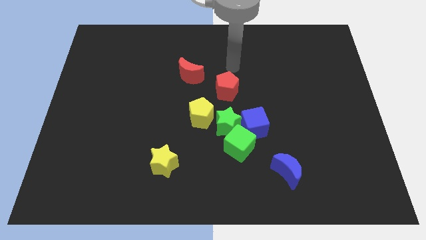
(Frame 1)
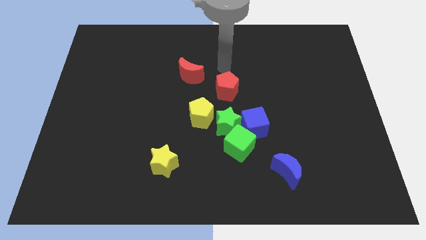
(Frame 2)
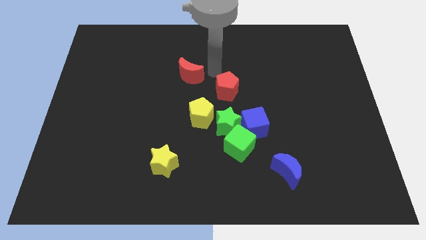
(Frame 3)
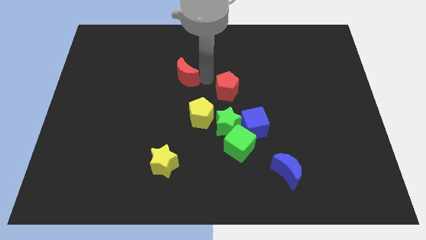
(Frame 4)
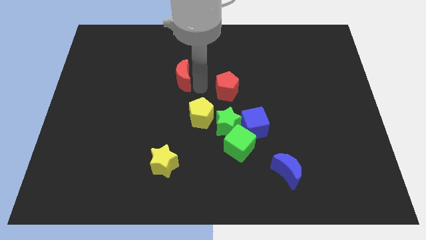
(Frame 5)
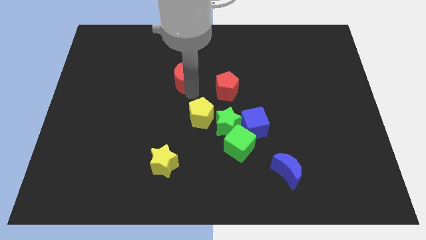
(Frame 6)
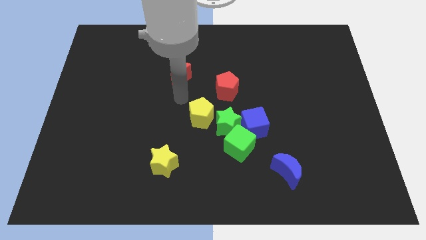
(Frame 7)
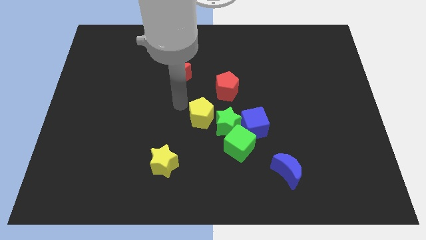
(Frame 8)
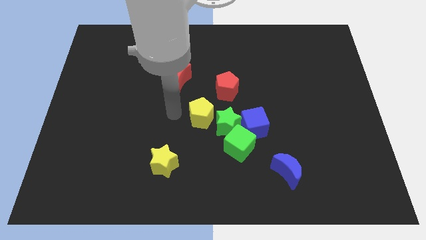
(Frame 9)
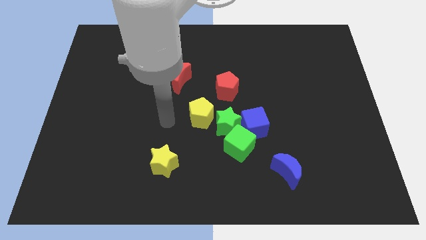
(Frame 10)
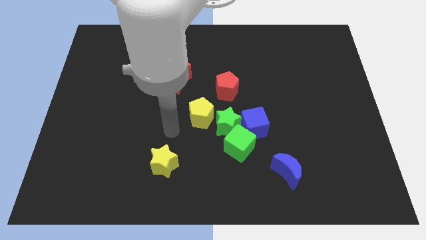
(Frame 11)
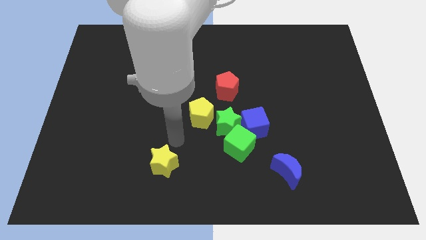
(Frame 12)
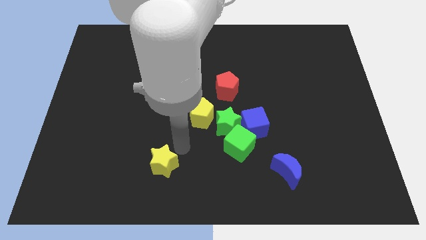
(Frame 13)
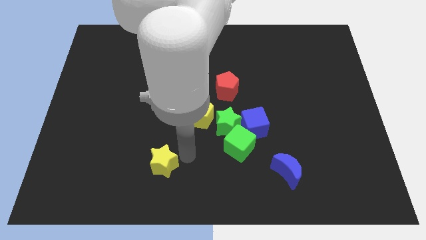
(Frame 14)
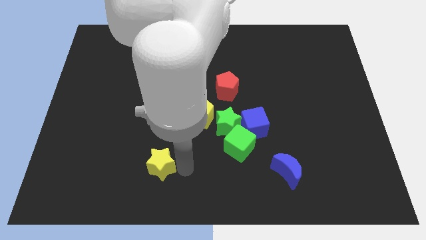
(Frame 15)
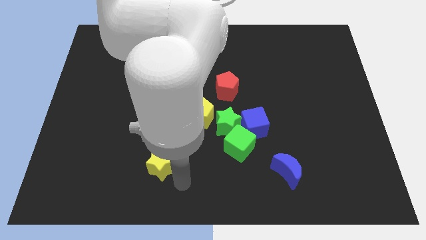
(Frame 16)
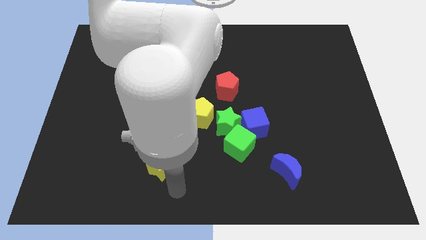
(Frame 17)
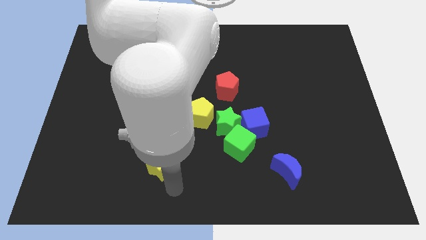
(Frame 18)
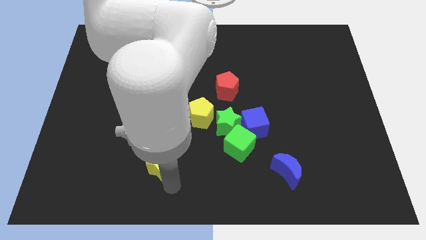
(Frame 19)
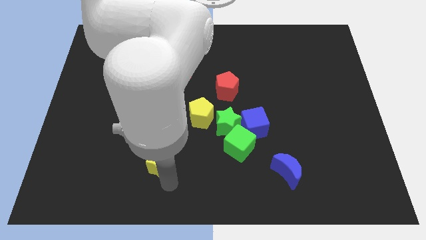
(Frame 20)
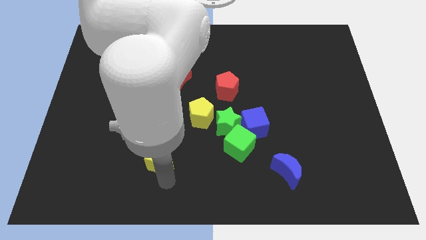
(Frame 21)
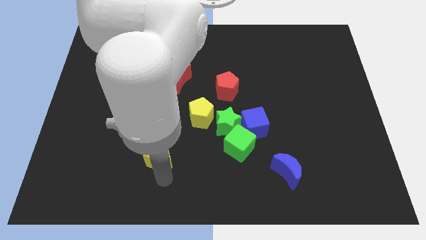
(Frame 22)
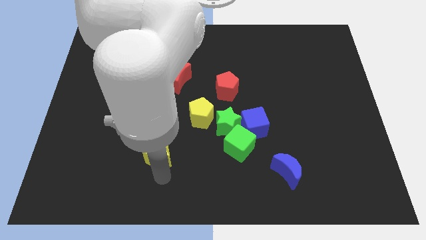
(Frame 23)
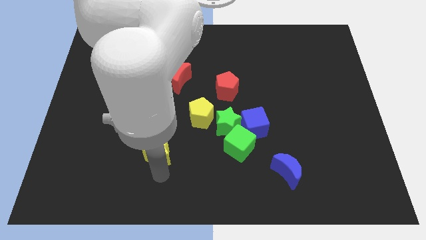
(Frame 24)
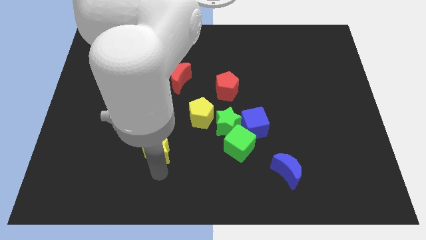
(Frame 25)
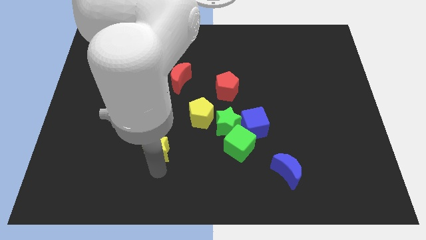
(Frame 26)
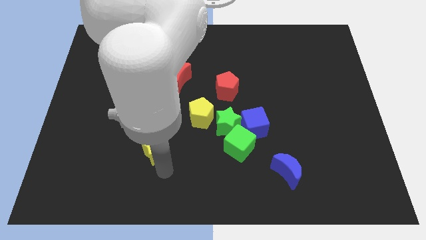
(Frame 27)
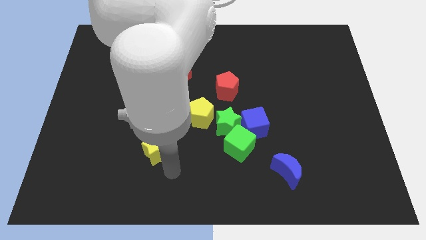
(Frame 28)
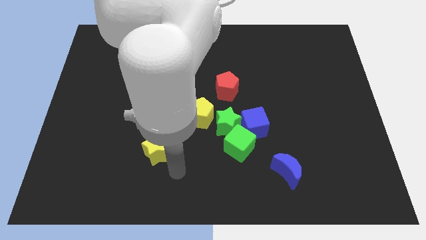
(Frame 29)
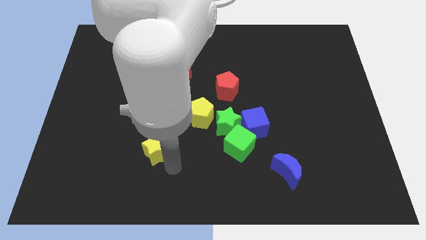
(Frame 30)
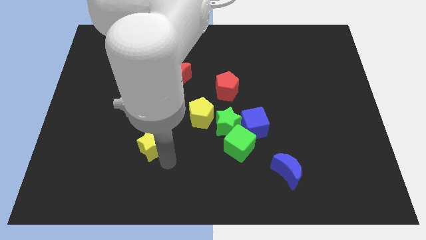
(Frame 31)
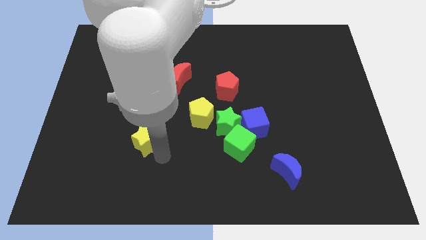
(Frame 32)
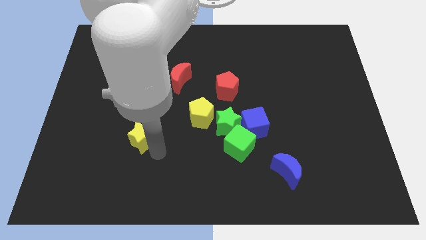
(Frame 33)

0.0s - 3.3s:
slide the yellow star somewhat up and then left

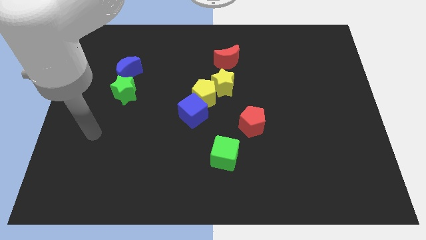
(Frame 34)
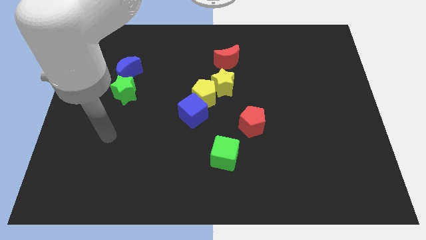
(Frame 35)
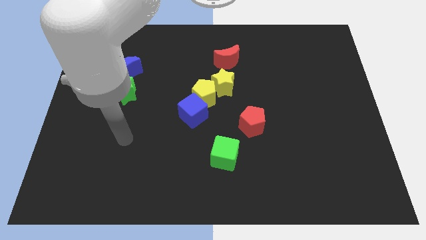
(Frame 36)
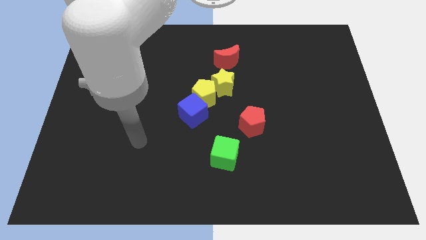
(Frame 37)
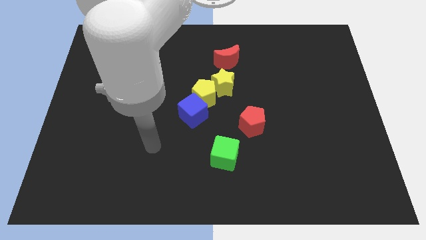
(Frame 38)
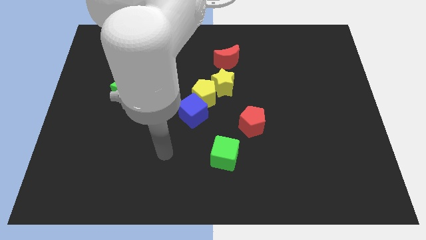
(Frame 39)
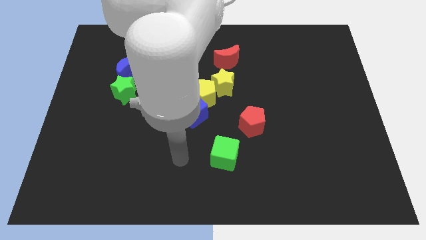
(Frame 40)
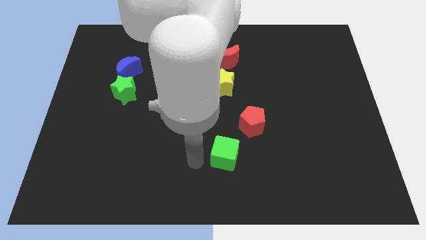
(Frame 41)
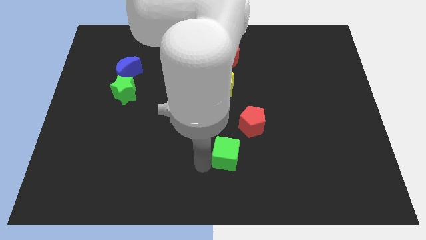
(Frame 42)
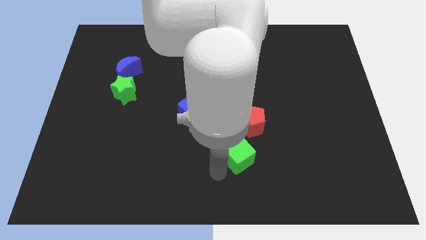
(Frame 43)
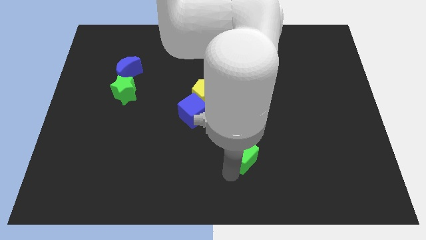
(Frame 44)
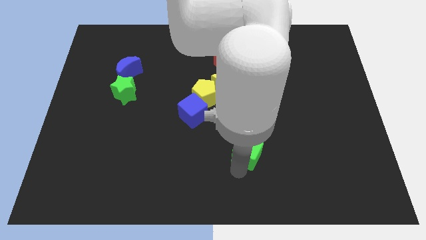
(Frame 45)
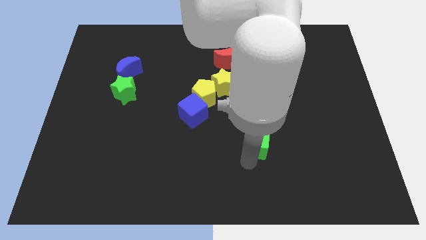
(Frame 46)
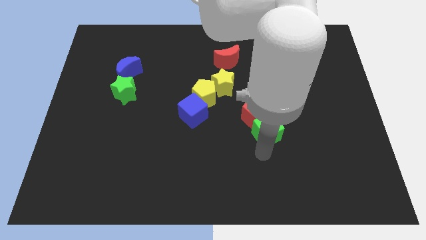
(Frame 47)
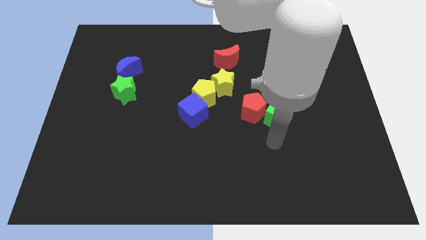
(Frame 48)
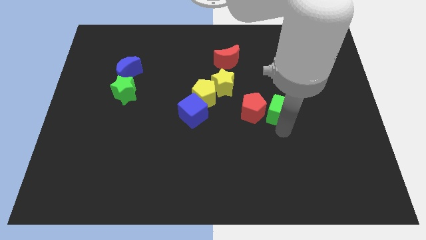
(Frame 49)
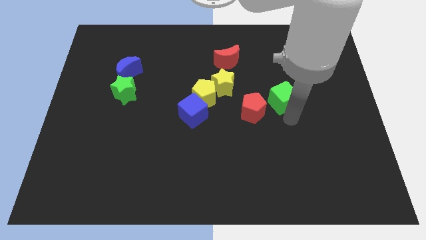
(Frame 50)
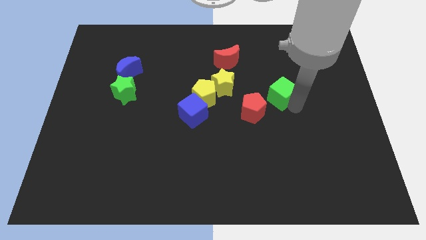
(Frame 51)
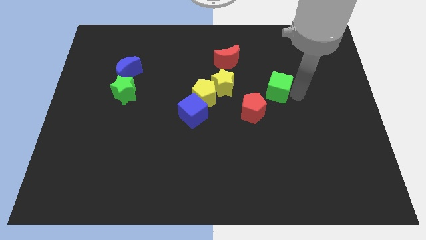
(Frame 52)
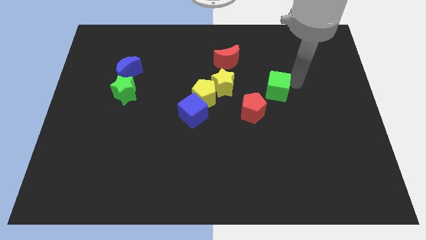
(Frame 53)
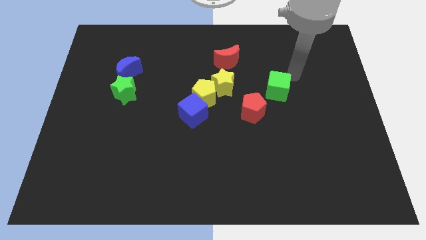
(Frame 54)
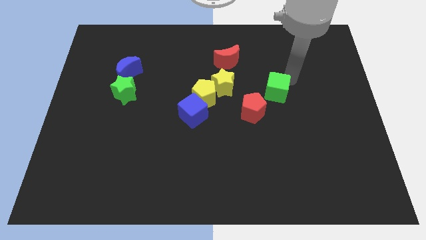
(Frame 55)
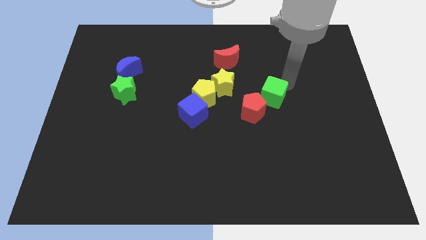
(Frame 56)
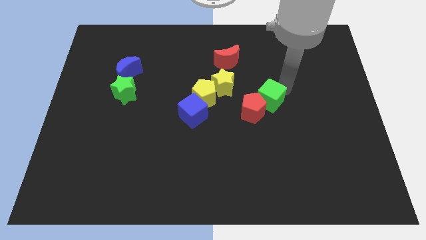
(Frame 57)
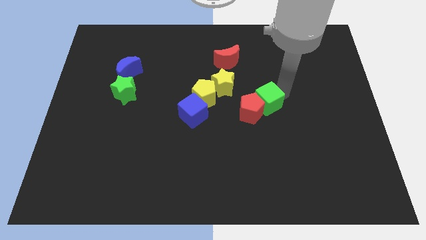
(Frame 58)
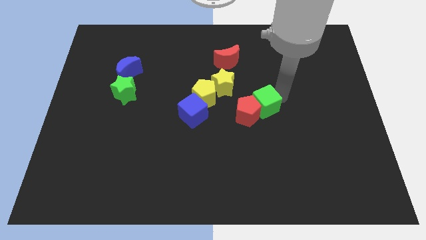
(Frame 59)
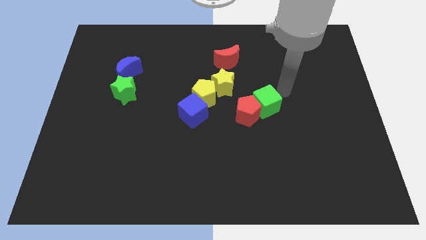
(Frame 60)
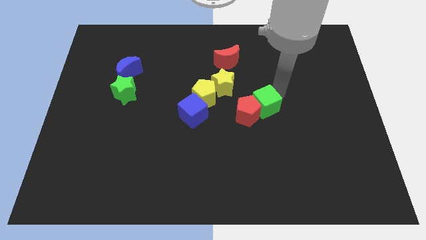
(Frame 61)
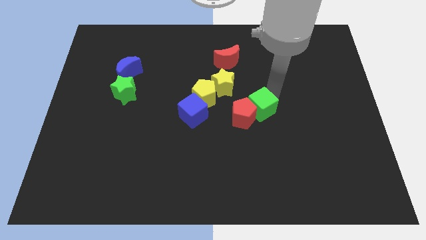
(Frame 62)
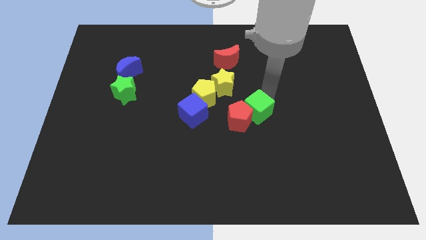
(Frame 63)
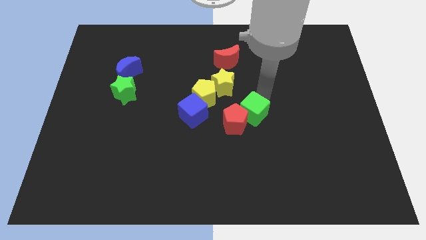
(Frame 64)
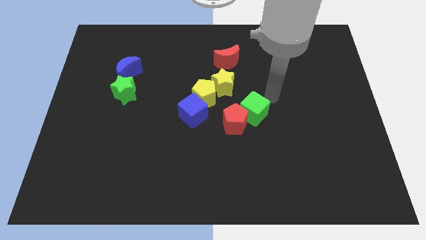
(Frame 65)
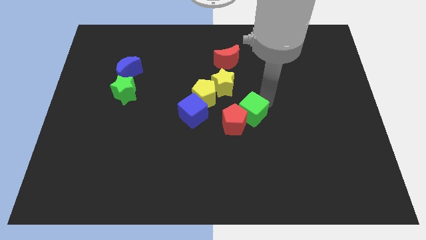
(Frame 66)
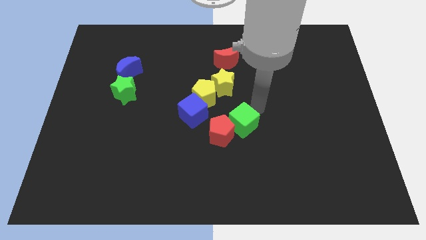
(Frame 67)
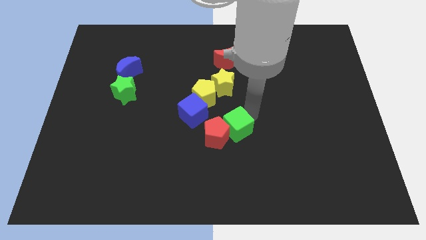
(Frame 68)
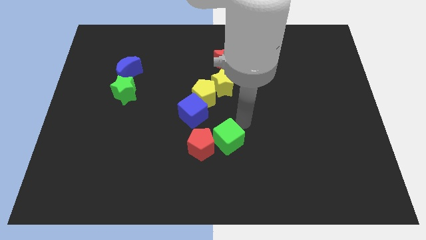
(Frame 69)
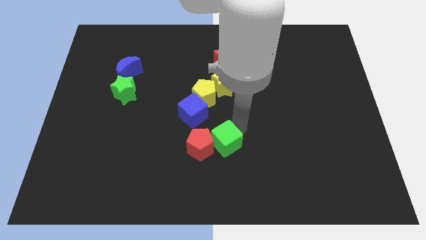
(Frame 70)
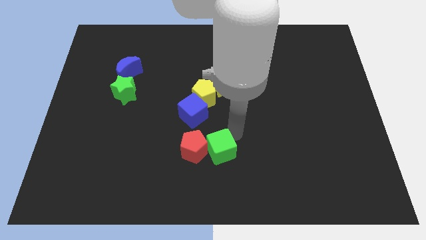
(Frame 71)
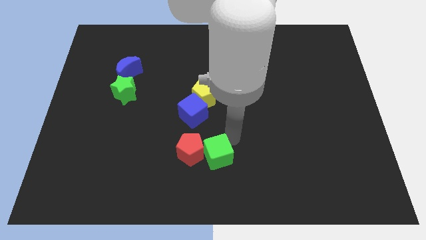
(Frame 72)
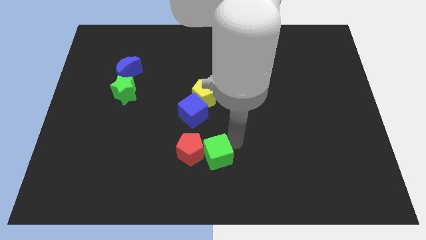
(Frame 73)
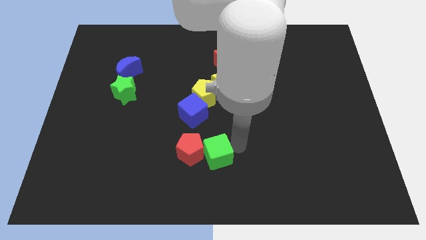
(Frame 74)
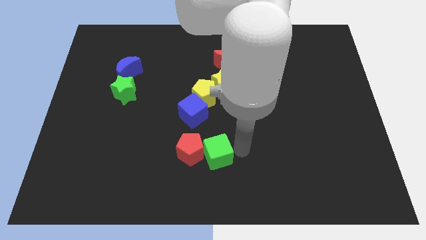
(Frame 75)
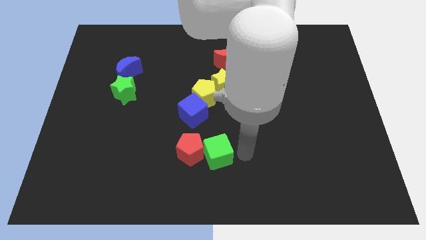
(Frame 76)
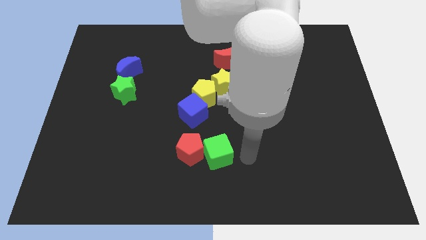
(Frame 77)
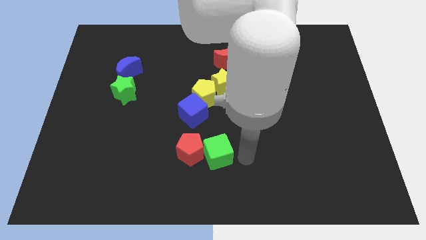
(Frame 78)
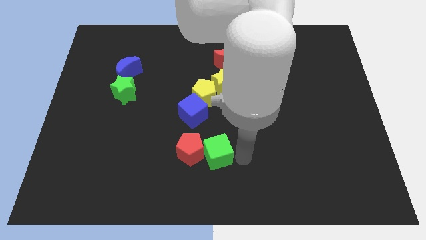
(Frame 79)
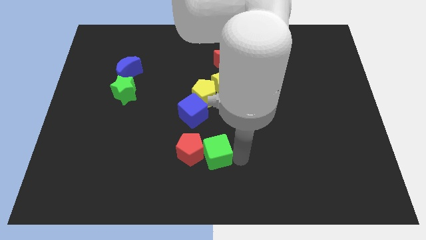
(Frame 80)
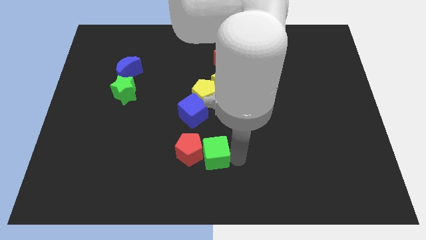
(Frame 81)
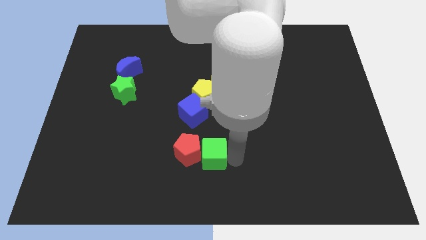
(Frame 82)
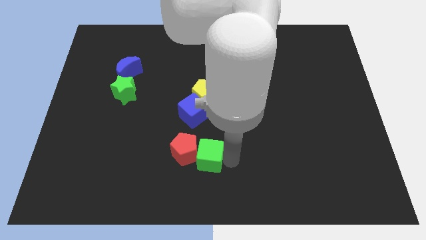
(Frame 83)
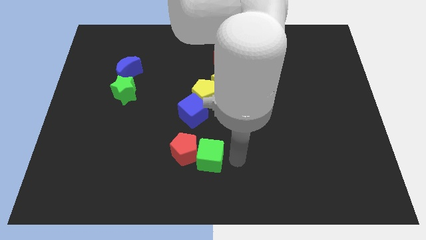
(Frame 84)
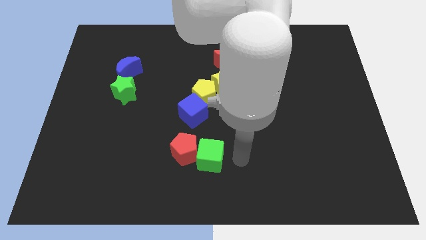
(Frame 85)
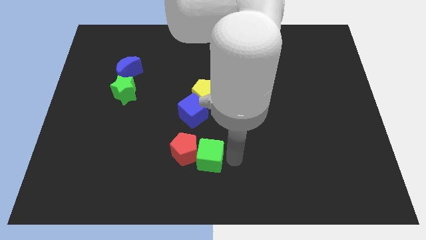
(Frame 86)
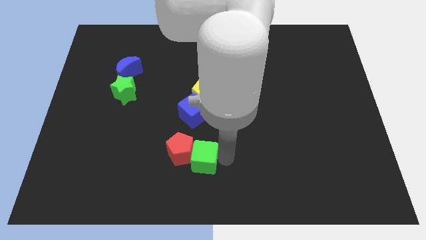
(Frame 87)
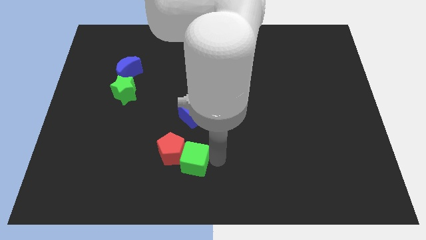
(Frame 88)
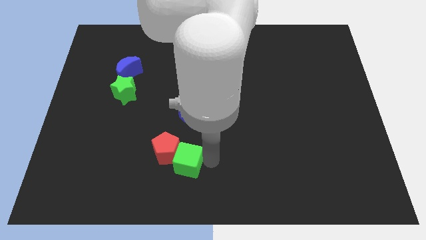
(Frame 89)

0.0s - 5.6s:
slightly move the green cube to the left
